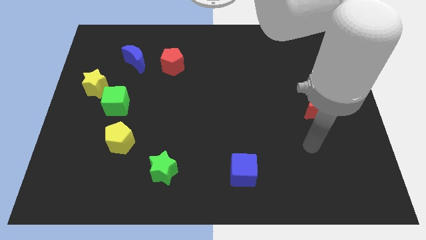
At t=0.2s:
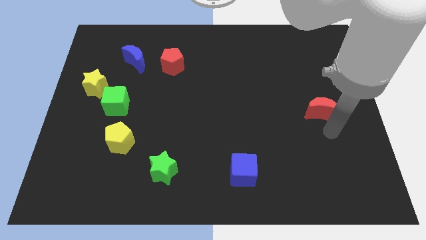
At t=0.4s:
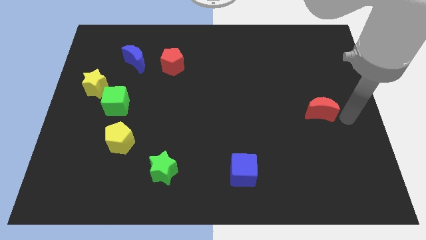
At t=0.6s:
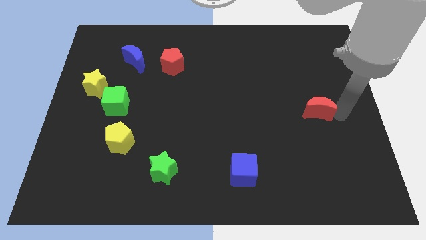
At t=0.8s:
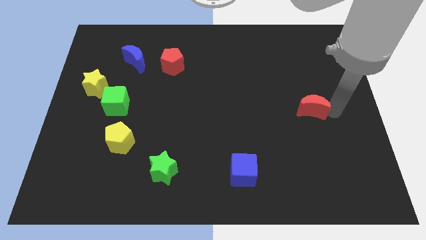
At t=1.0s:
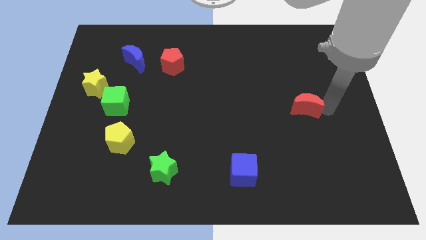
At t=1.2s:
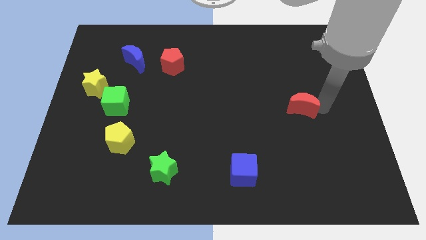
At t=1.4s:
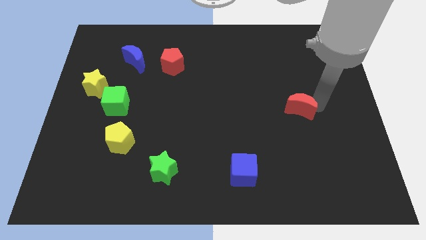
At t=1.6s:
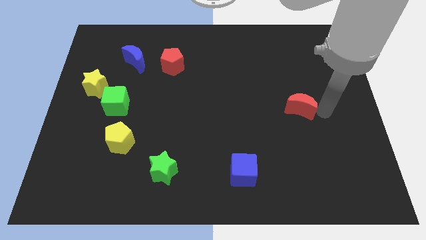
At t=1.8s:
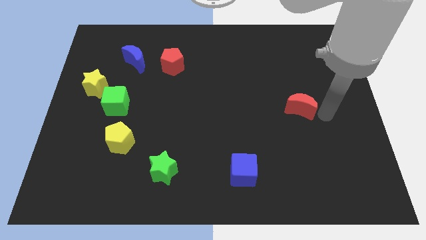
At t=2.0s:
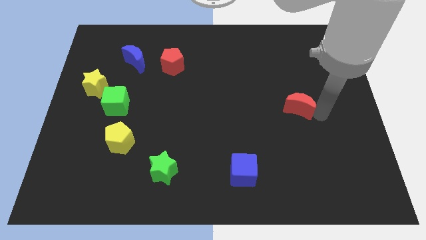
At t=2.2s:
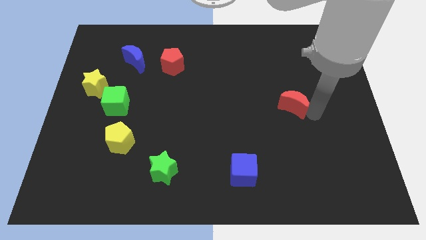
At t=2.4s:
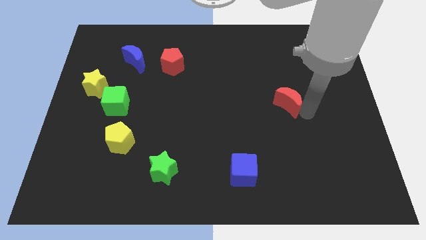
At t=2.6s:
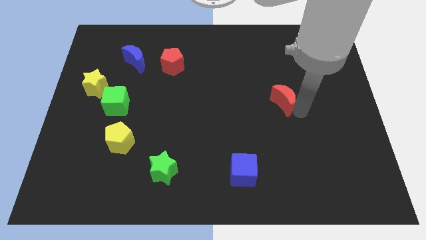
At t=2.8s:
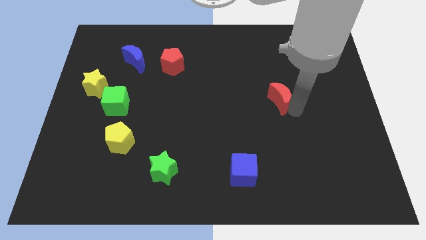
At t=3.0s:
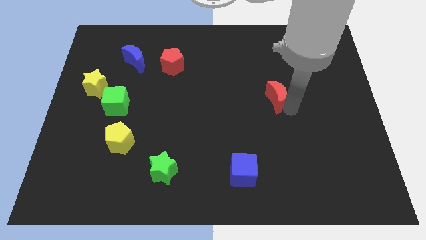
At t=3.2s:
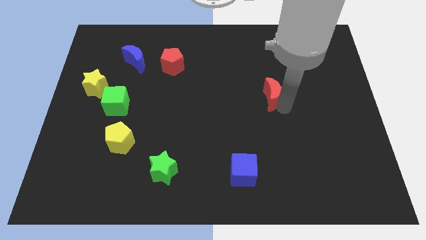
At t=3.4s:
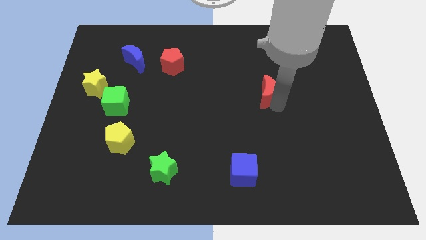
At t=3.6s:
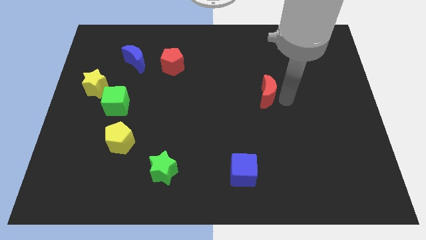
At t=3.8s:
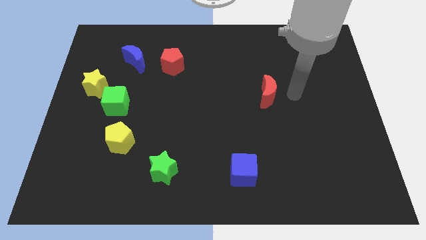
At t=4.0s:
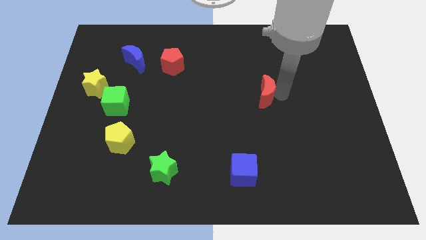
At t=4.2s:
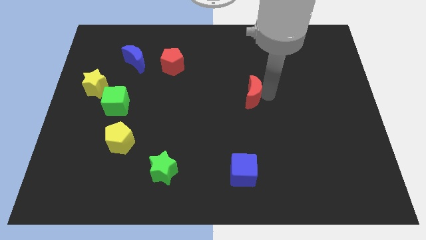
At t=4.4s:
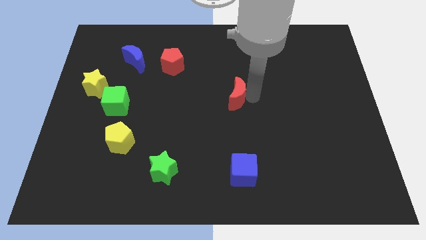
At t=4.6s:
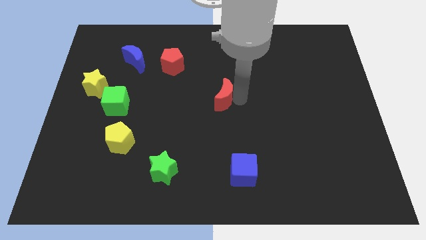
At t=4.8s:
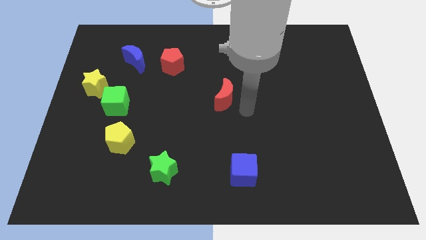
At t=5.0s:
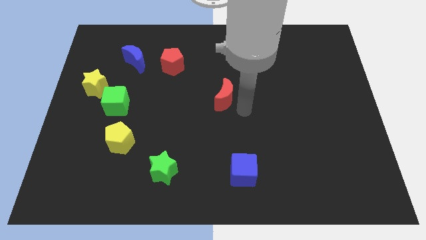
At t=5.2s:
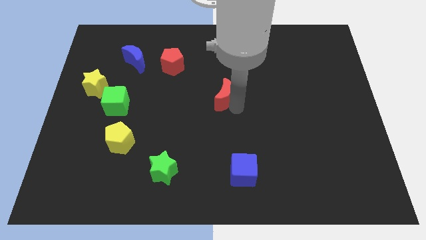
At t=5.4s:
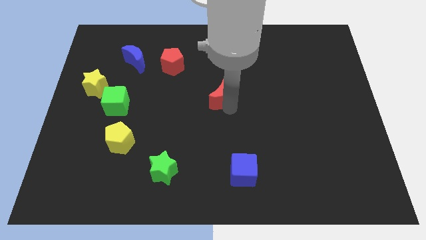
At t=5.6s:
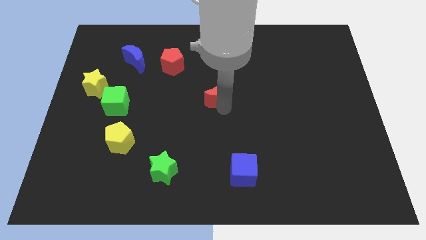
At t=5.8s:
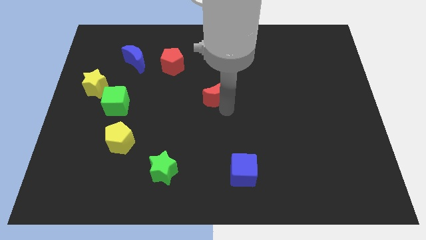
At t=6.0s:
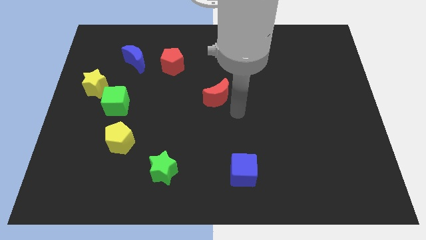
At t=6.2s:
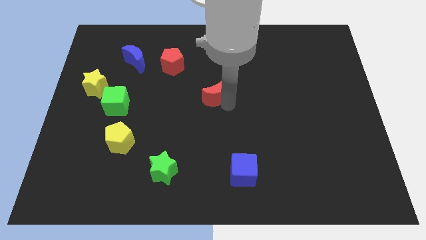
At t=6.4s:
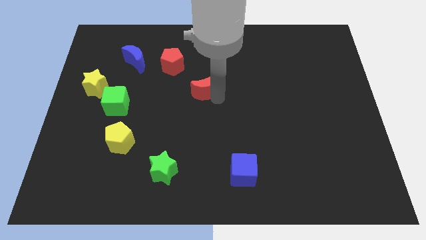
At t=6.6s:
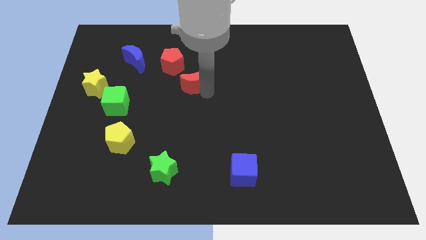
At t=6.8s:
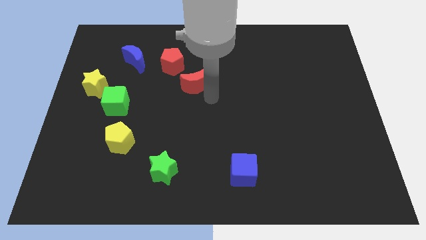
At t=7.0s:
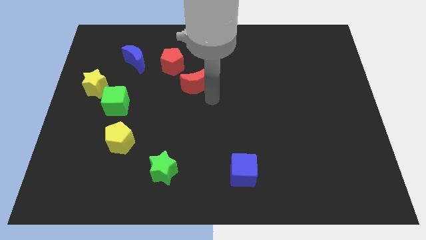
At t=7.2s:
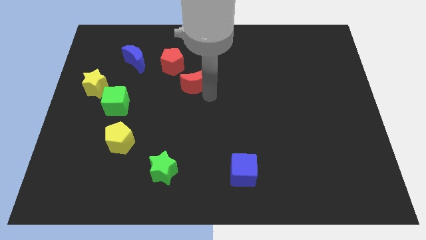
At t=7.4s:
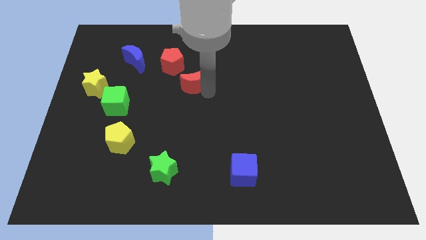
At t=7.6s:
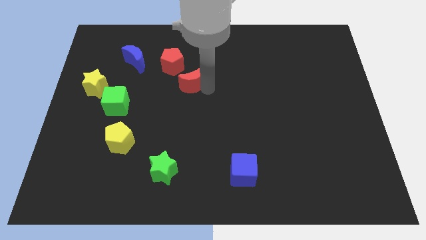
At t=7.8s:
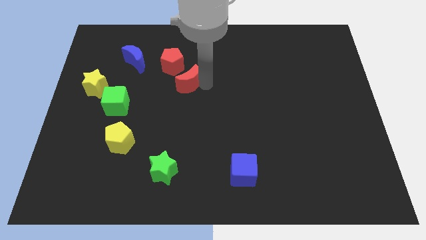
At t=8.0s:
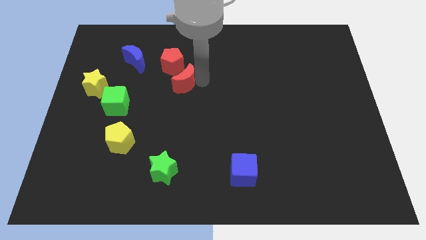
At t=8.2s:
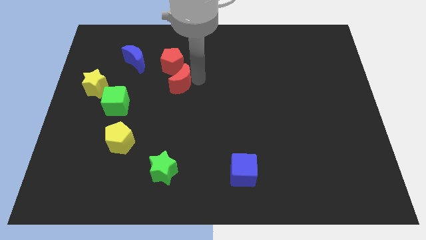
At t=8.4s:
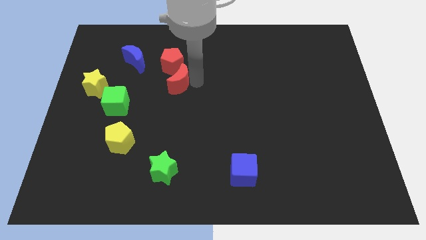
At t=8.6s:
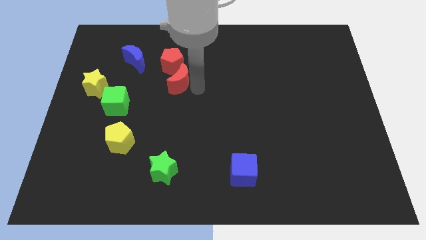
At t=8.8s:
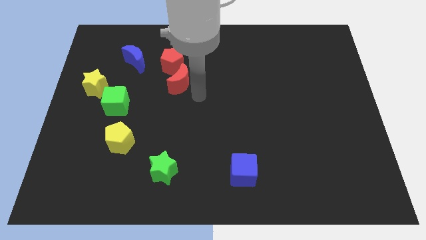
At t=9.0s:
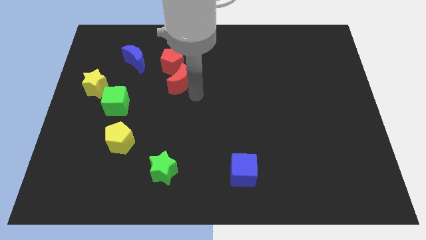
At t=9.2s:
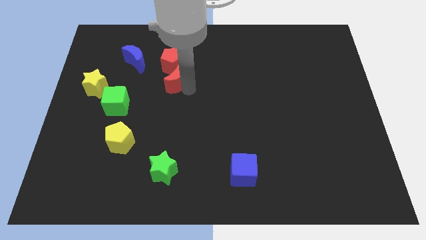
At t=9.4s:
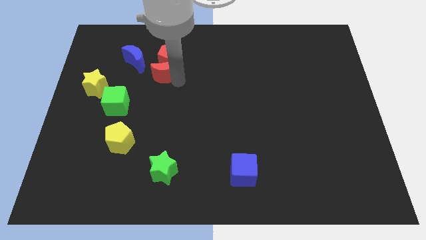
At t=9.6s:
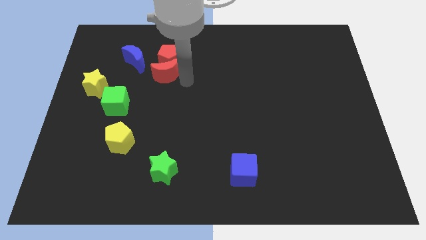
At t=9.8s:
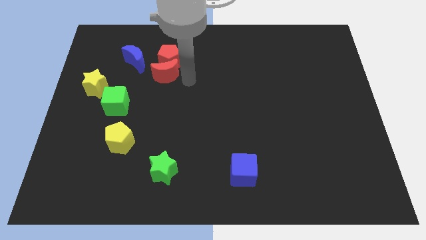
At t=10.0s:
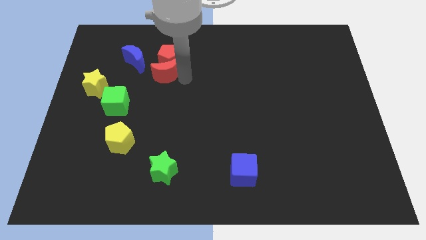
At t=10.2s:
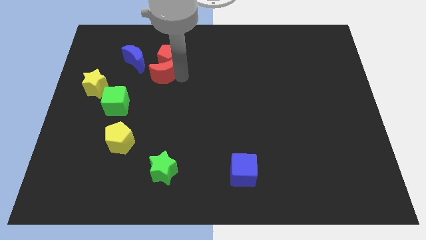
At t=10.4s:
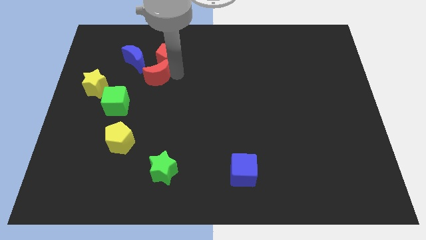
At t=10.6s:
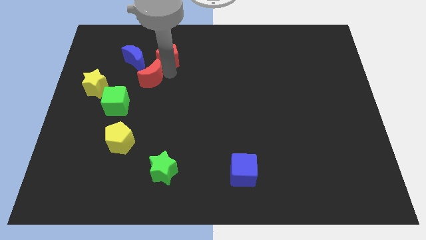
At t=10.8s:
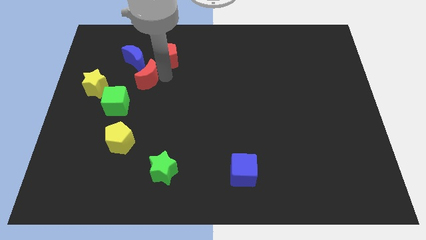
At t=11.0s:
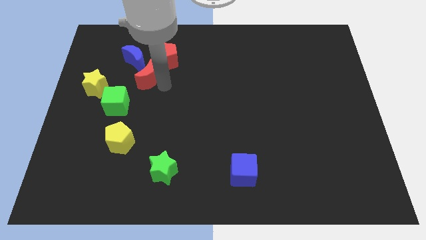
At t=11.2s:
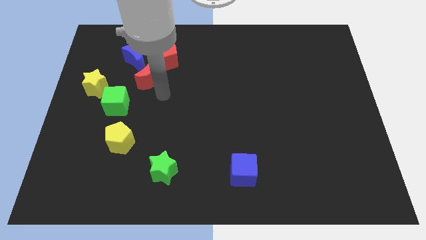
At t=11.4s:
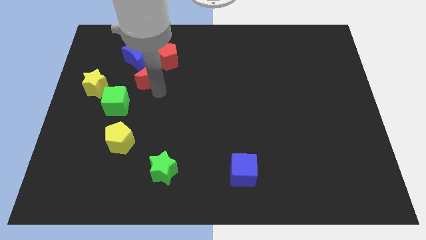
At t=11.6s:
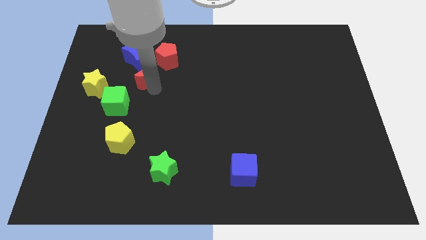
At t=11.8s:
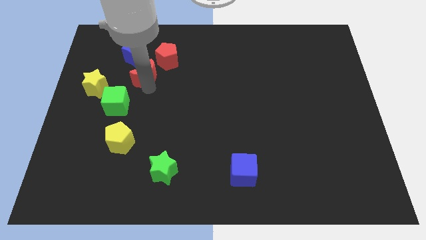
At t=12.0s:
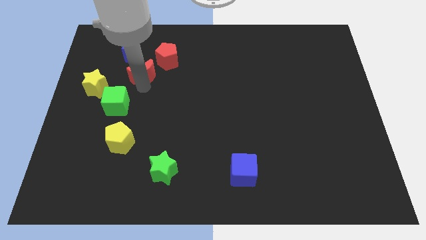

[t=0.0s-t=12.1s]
put the red moon towards the blue moon

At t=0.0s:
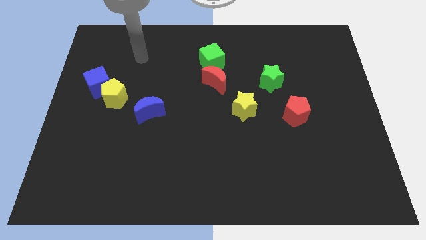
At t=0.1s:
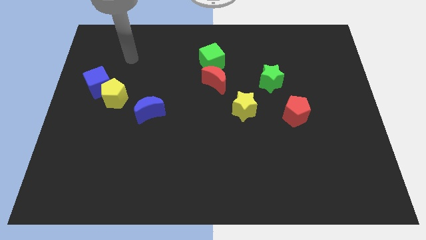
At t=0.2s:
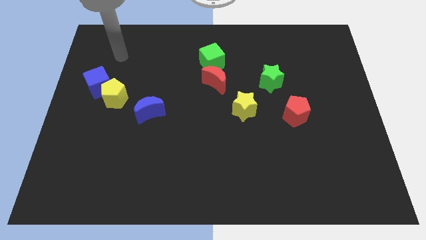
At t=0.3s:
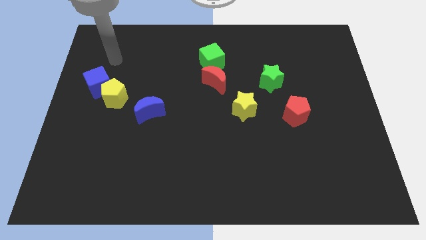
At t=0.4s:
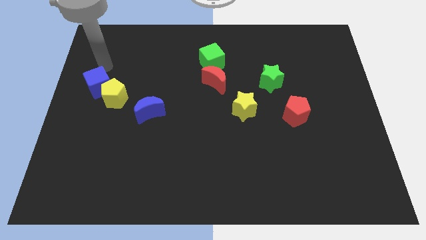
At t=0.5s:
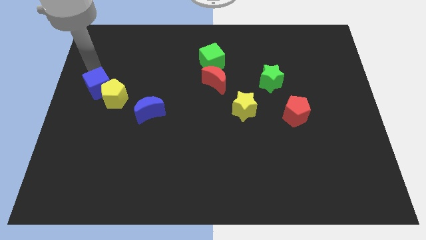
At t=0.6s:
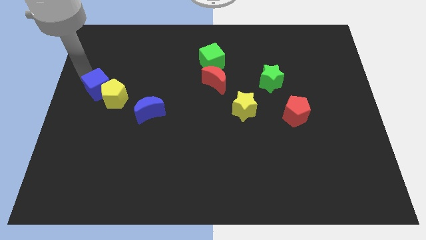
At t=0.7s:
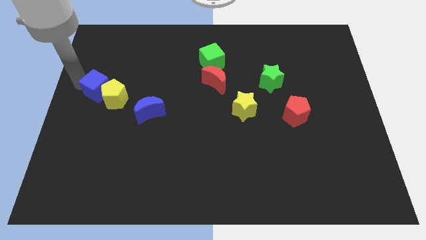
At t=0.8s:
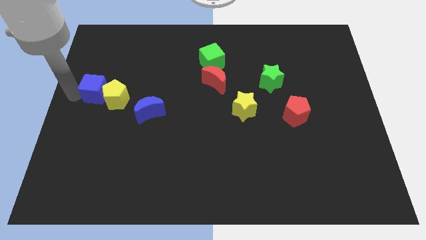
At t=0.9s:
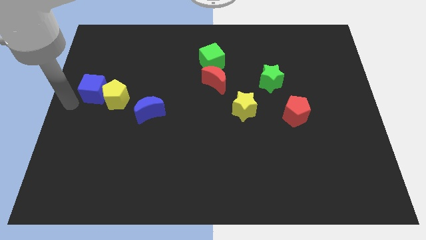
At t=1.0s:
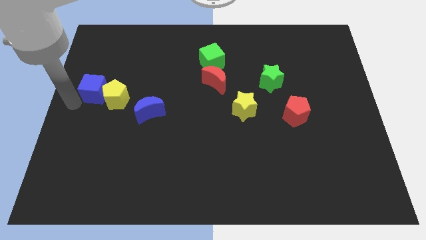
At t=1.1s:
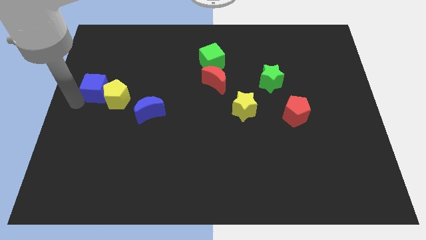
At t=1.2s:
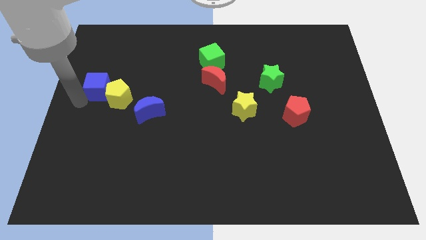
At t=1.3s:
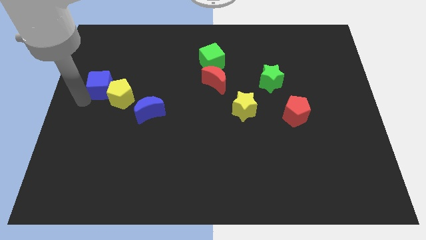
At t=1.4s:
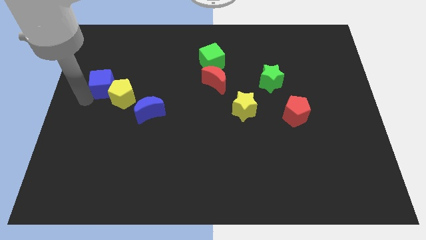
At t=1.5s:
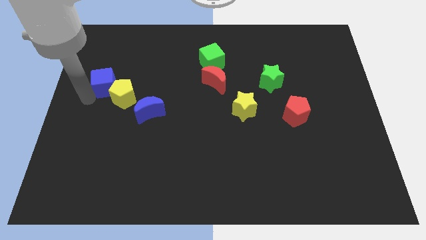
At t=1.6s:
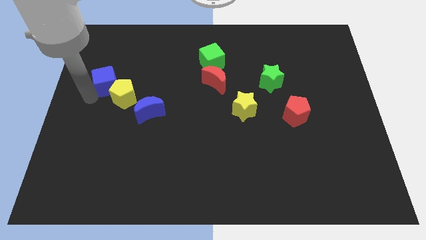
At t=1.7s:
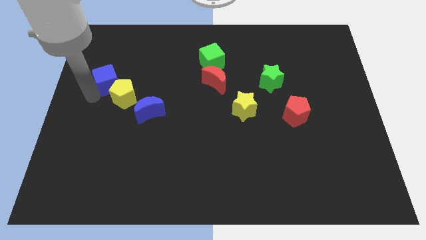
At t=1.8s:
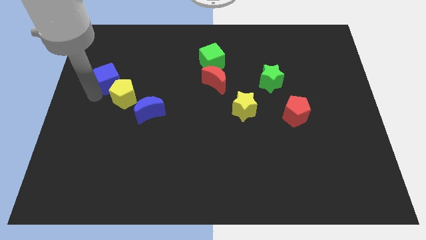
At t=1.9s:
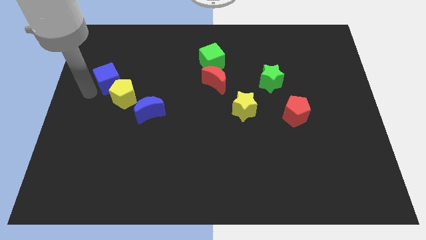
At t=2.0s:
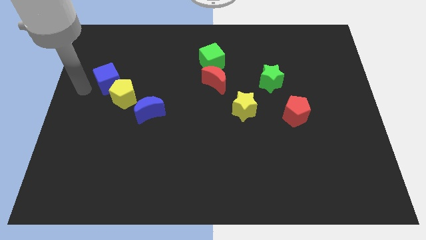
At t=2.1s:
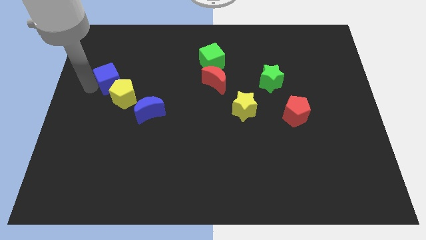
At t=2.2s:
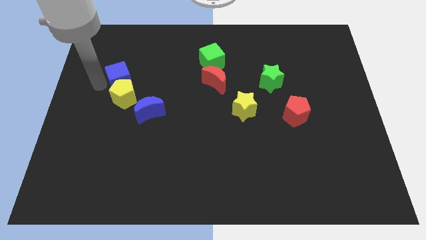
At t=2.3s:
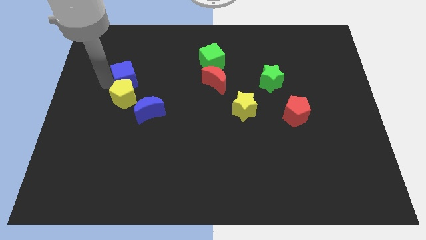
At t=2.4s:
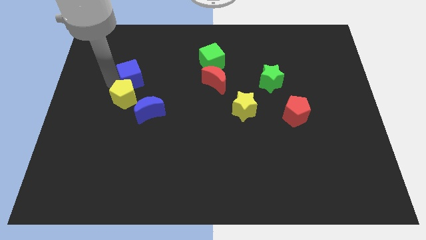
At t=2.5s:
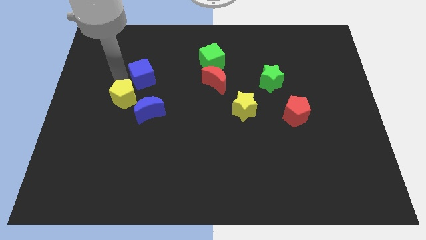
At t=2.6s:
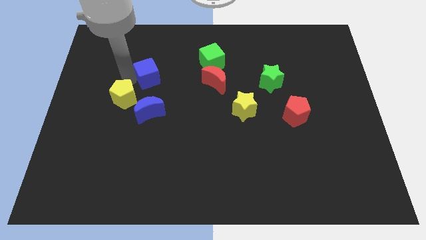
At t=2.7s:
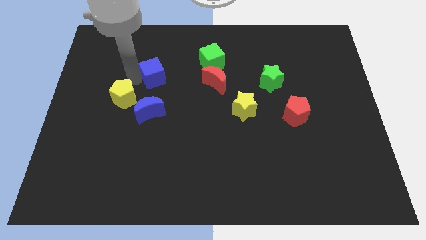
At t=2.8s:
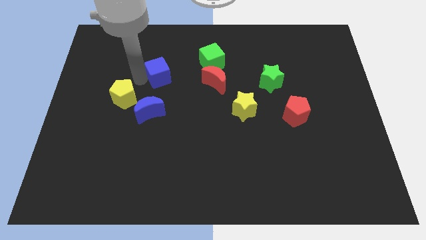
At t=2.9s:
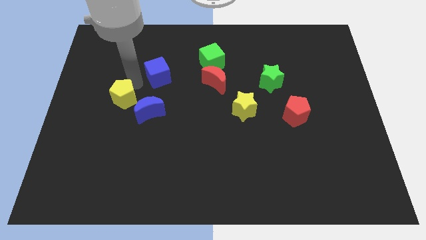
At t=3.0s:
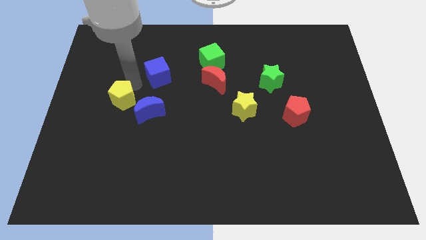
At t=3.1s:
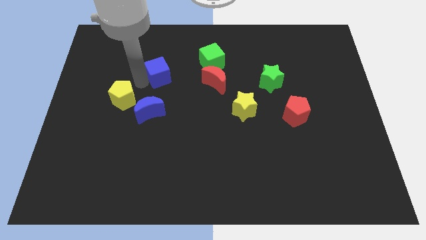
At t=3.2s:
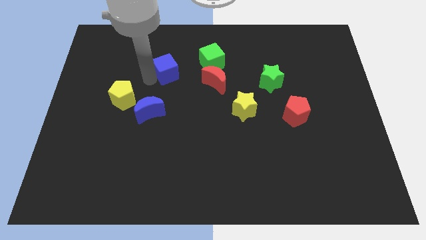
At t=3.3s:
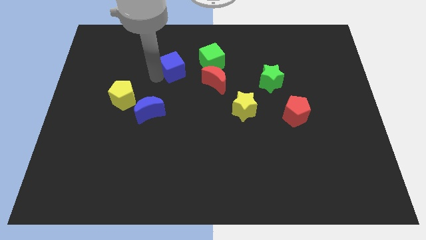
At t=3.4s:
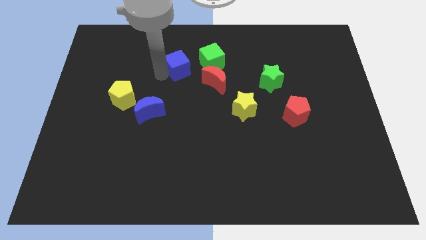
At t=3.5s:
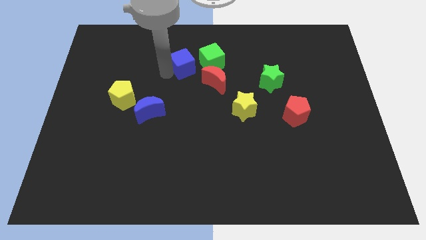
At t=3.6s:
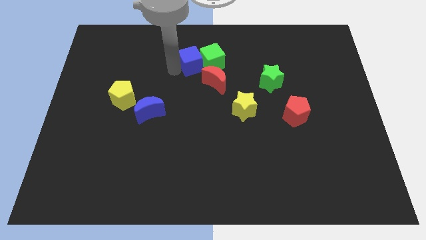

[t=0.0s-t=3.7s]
put the blue cube to the green cube
